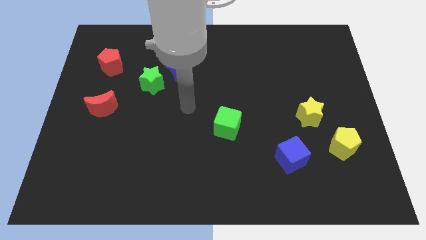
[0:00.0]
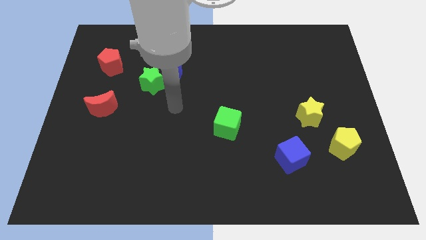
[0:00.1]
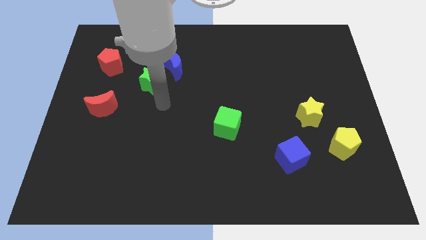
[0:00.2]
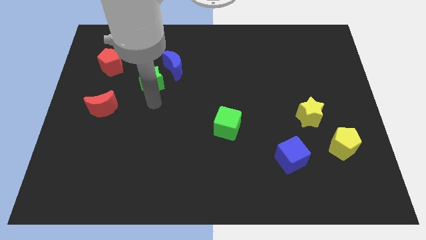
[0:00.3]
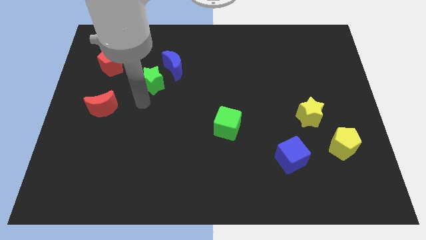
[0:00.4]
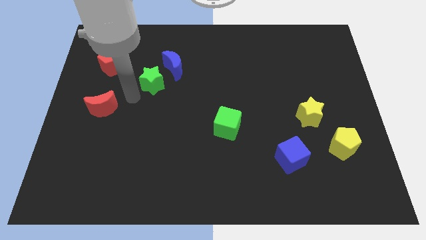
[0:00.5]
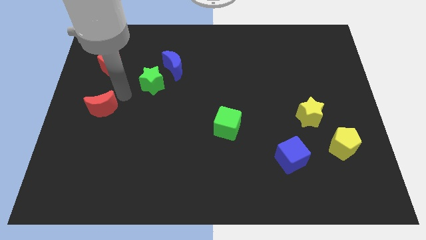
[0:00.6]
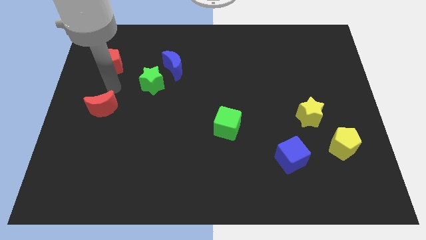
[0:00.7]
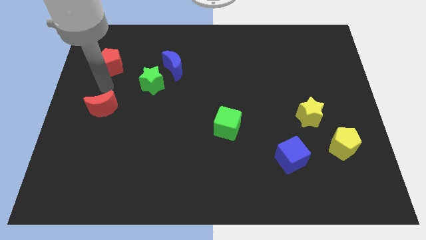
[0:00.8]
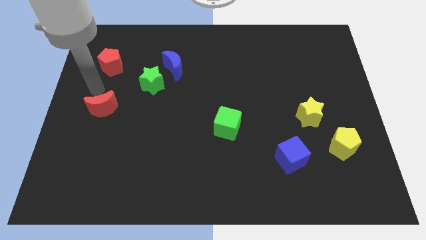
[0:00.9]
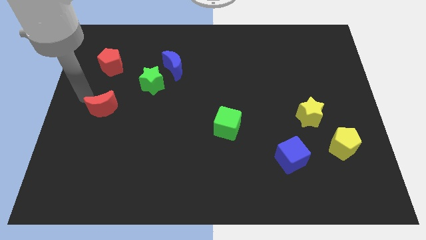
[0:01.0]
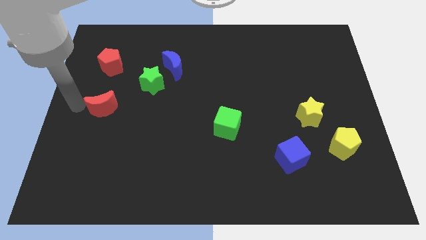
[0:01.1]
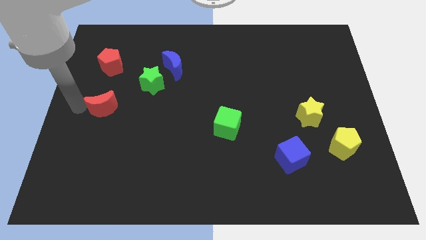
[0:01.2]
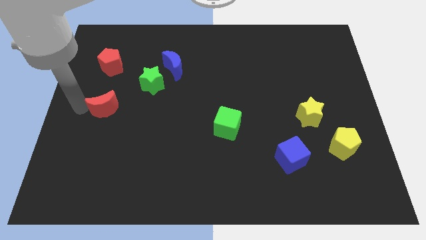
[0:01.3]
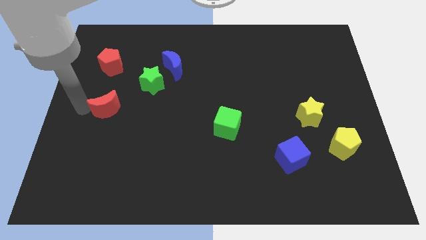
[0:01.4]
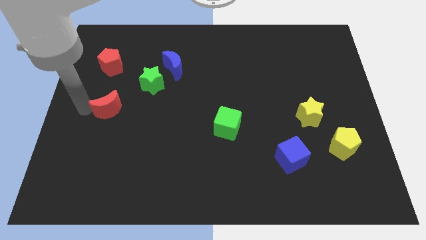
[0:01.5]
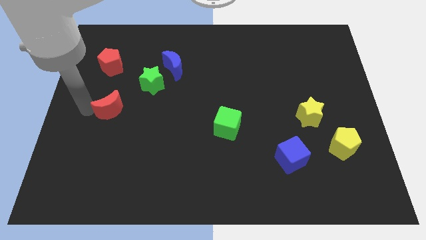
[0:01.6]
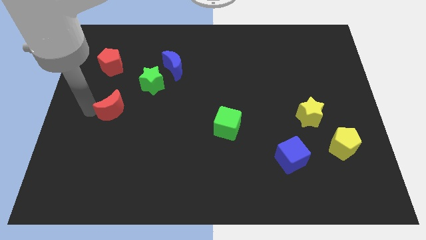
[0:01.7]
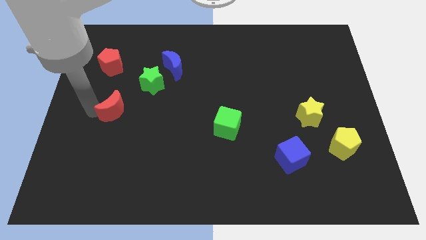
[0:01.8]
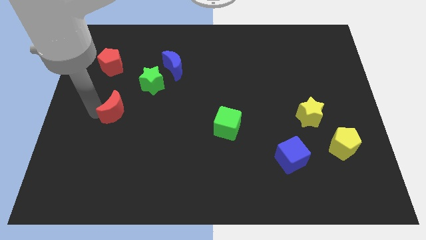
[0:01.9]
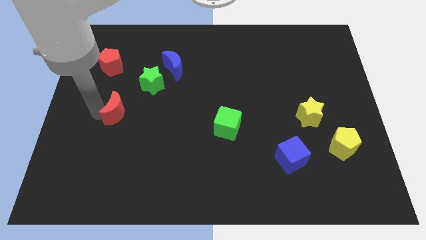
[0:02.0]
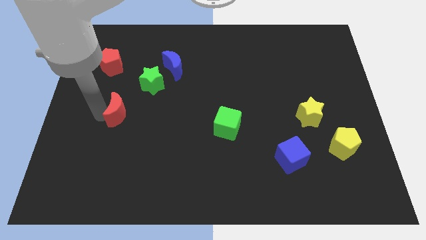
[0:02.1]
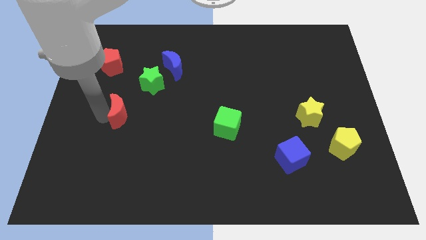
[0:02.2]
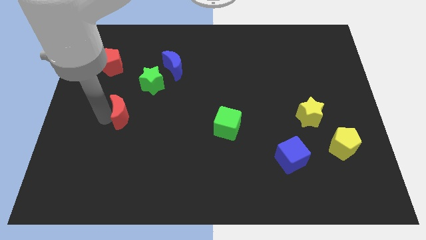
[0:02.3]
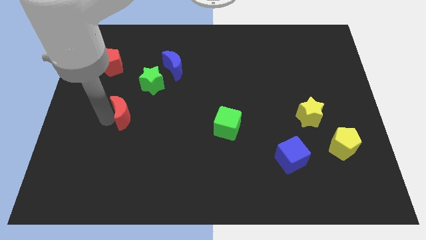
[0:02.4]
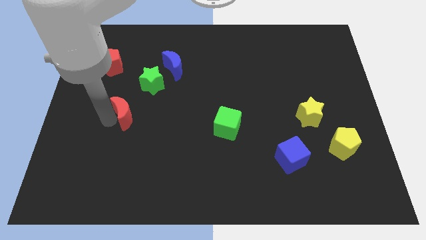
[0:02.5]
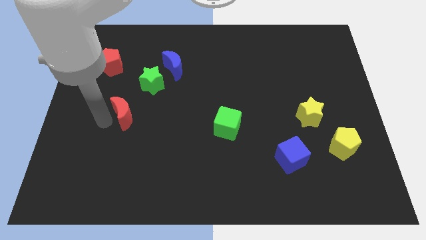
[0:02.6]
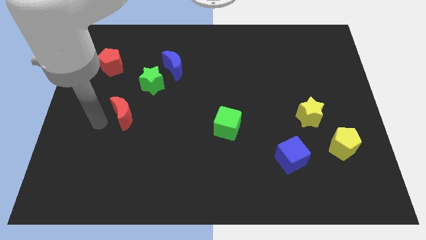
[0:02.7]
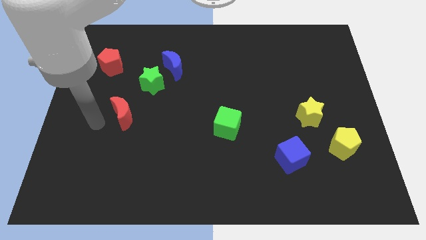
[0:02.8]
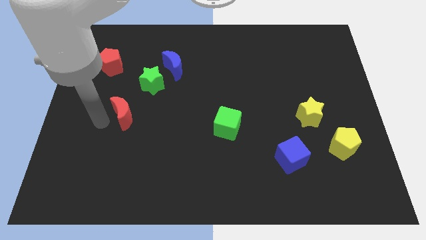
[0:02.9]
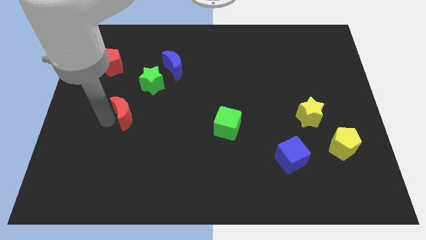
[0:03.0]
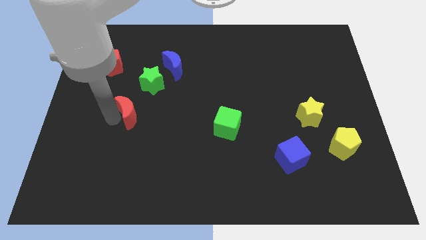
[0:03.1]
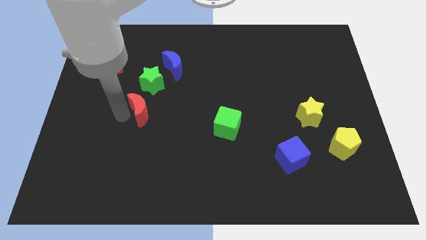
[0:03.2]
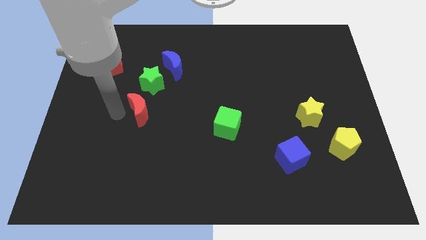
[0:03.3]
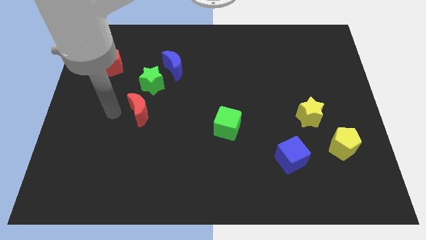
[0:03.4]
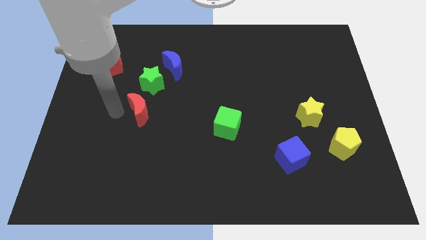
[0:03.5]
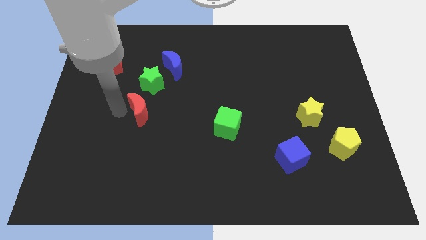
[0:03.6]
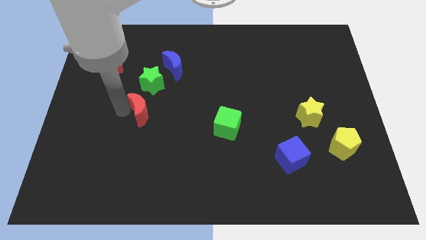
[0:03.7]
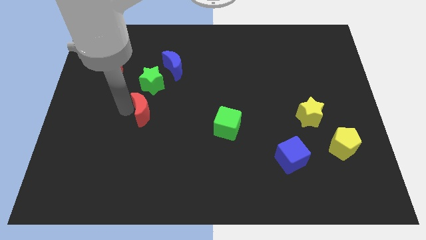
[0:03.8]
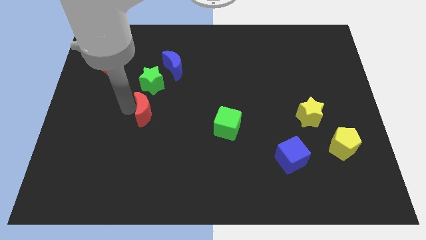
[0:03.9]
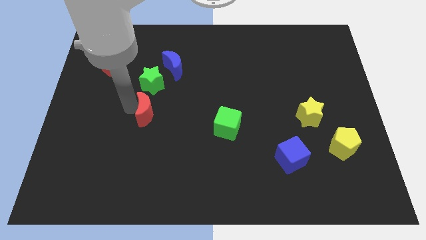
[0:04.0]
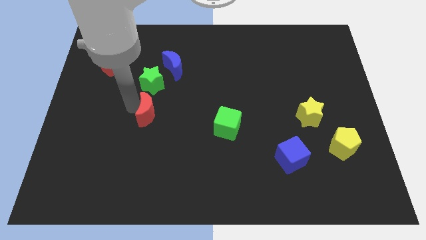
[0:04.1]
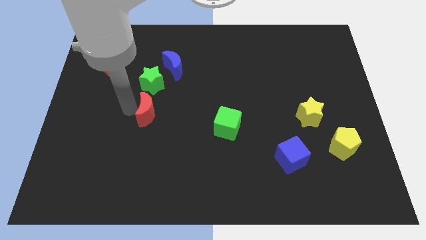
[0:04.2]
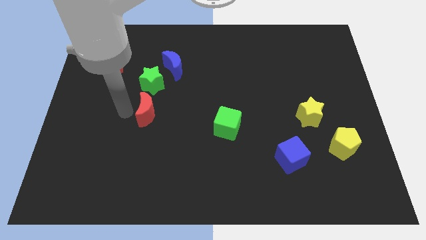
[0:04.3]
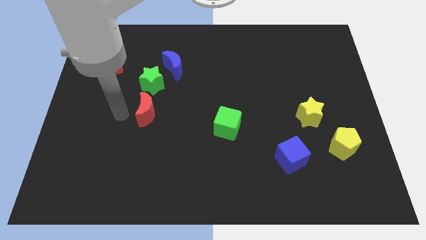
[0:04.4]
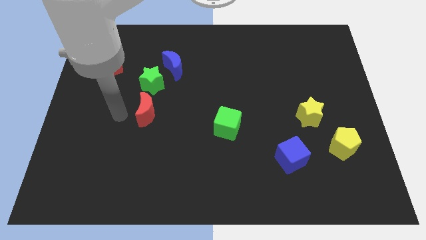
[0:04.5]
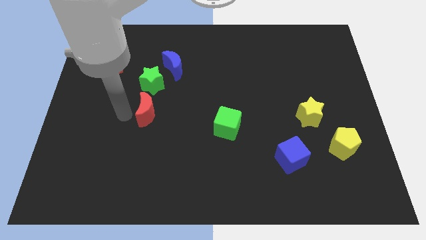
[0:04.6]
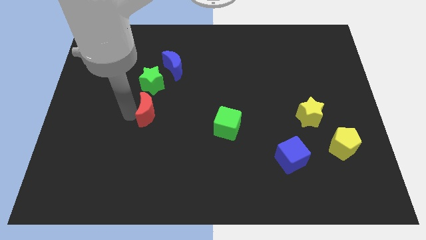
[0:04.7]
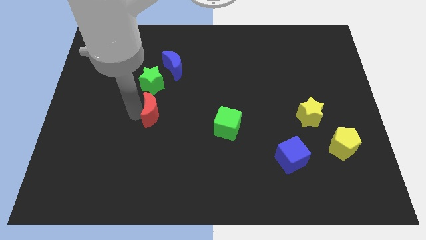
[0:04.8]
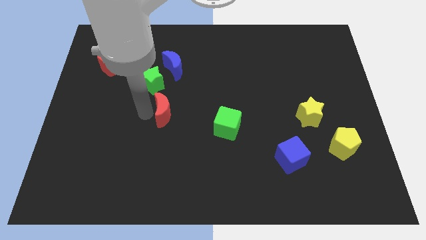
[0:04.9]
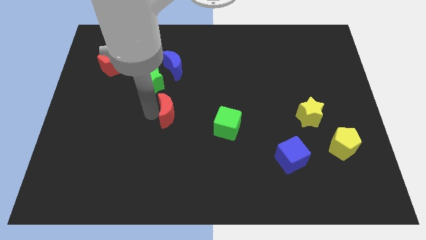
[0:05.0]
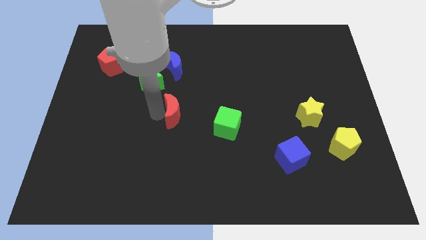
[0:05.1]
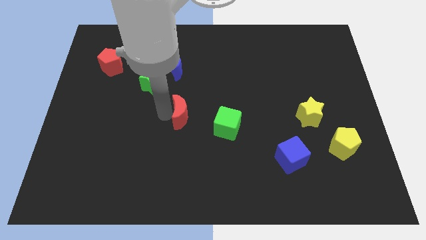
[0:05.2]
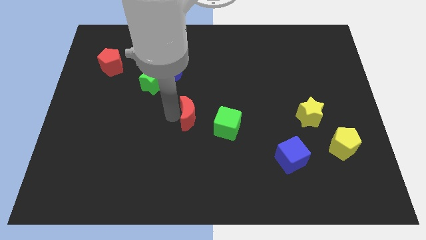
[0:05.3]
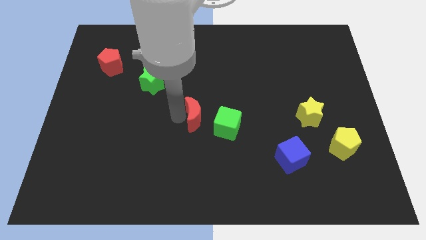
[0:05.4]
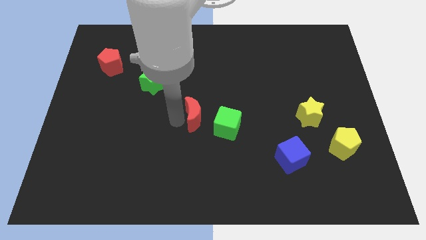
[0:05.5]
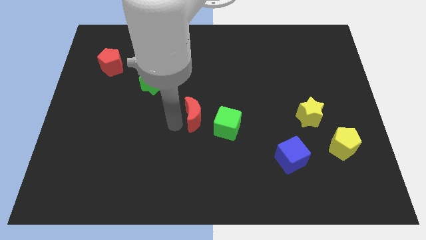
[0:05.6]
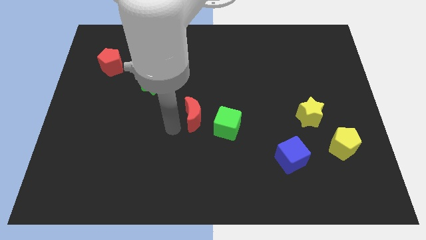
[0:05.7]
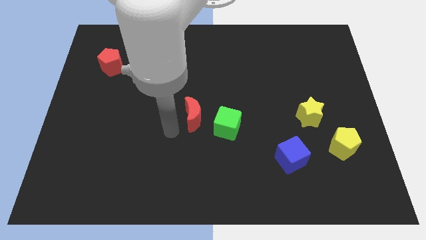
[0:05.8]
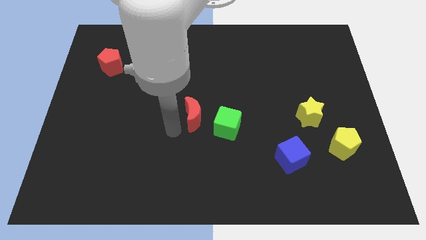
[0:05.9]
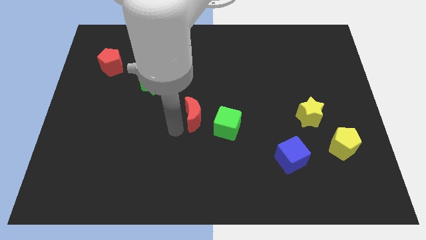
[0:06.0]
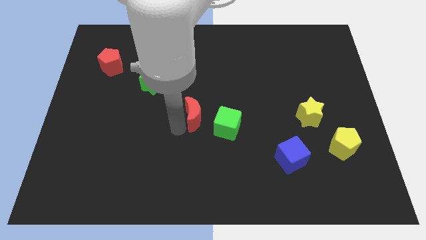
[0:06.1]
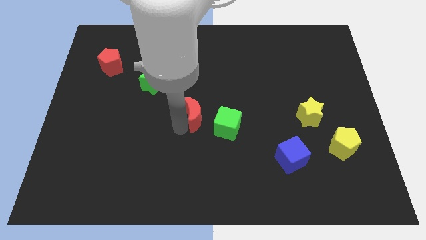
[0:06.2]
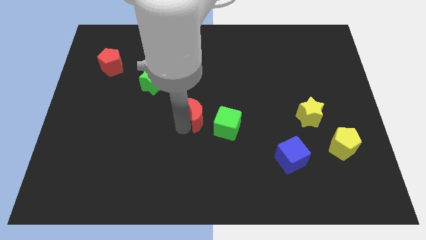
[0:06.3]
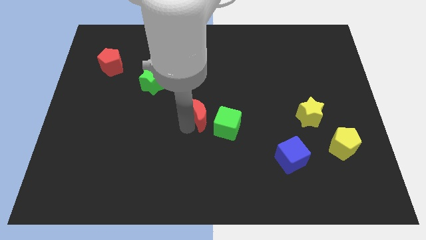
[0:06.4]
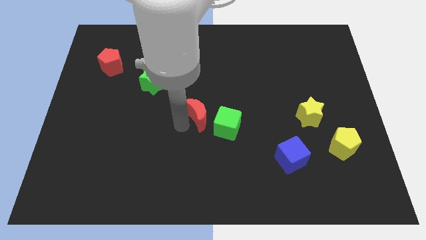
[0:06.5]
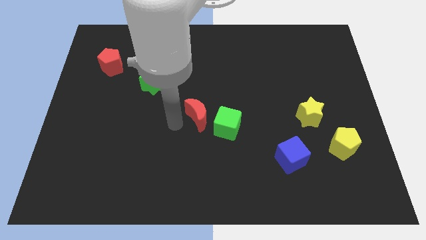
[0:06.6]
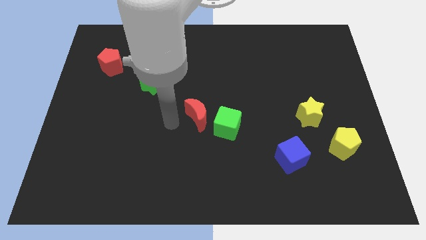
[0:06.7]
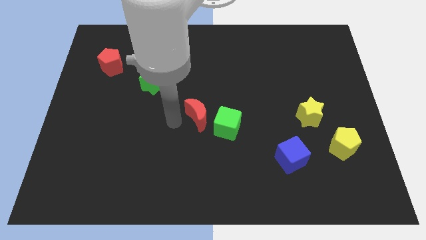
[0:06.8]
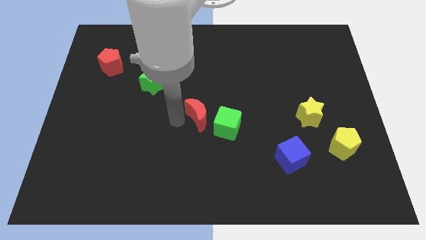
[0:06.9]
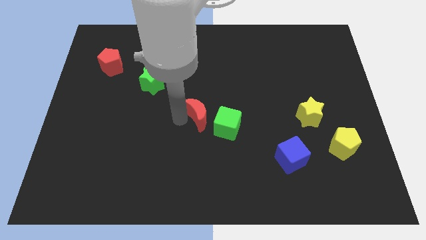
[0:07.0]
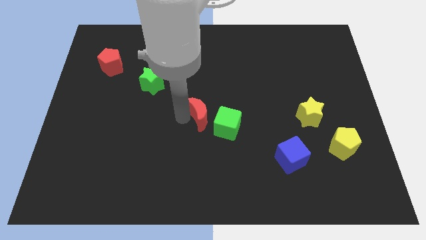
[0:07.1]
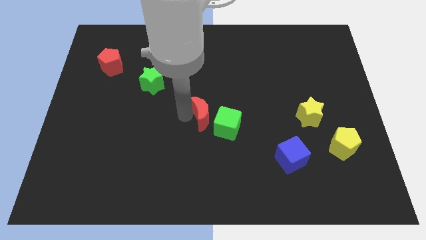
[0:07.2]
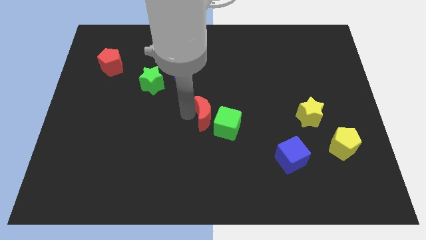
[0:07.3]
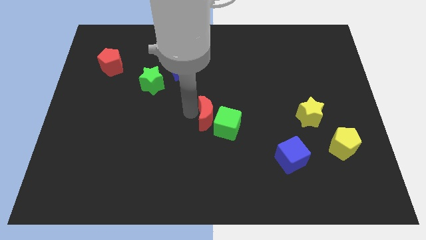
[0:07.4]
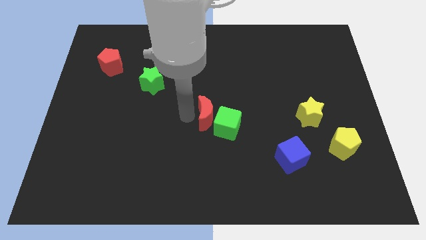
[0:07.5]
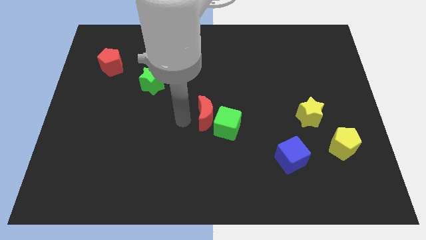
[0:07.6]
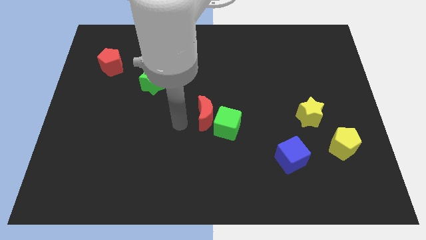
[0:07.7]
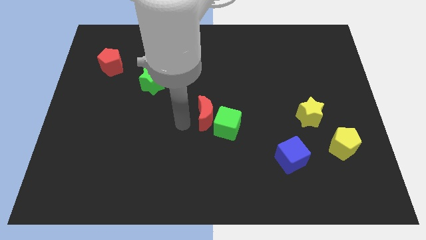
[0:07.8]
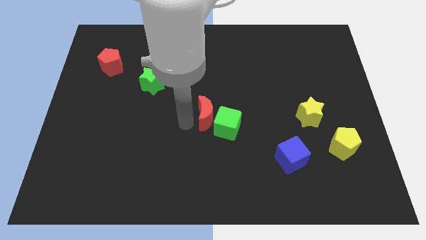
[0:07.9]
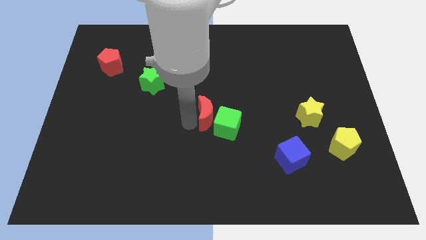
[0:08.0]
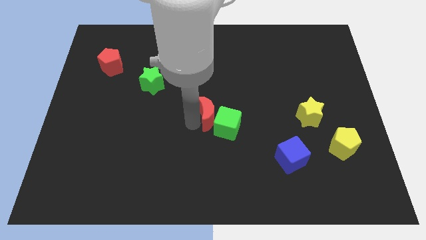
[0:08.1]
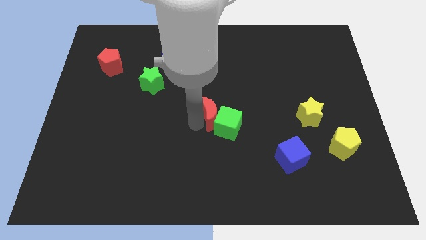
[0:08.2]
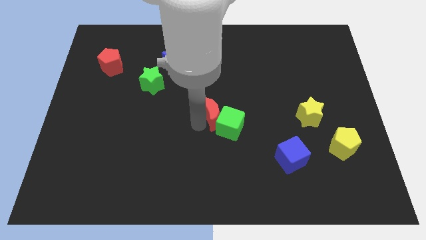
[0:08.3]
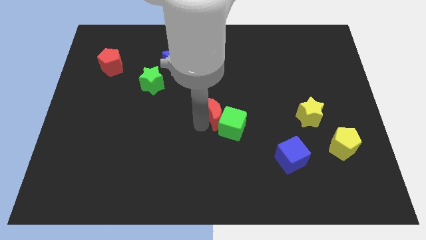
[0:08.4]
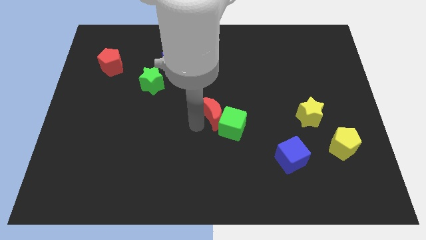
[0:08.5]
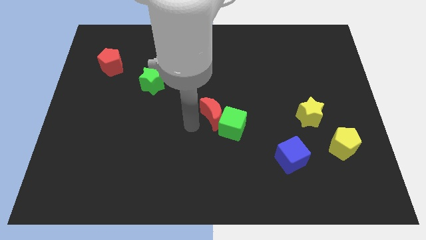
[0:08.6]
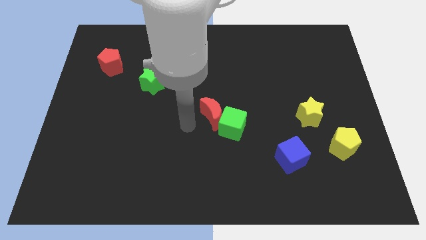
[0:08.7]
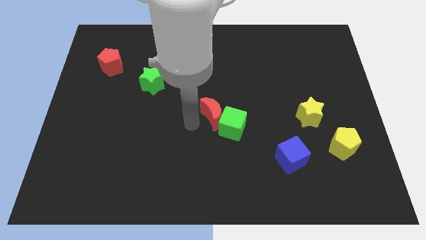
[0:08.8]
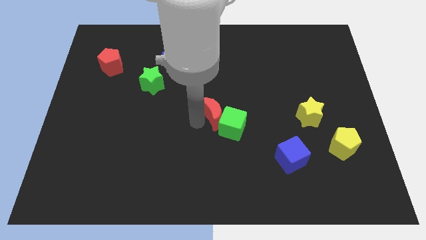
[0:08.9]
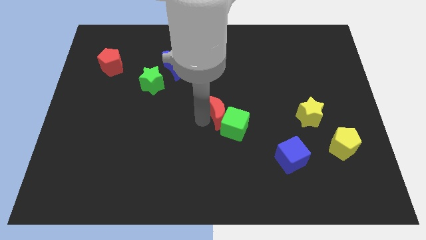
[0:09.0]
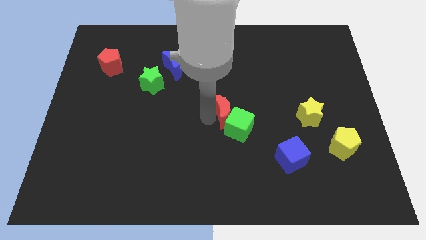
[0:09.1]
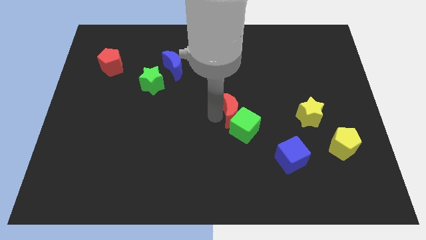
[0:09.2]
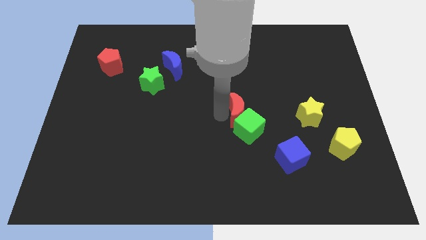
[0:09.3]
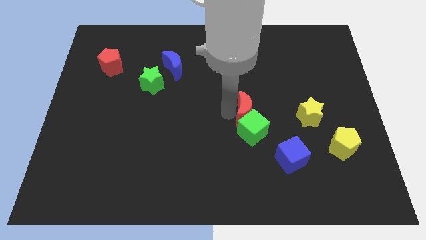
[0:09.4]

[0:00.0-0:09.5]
slide the red moon just left of the yellow star
